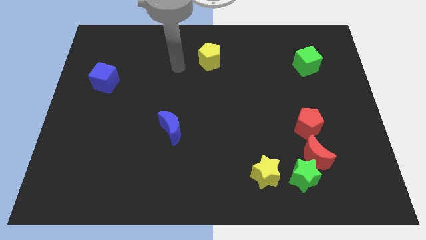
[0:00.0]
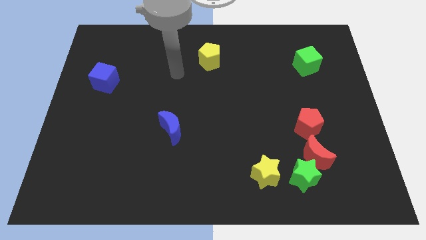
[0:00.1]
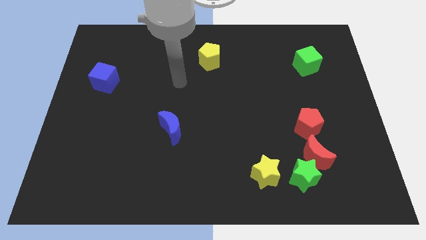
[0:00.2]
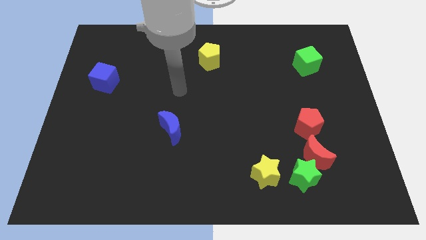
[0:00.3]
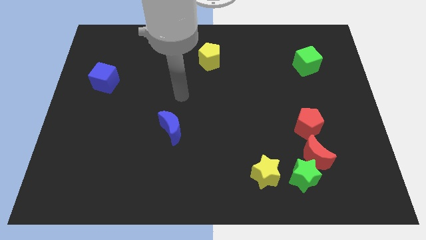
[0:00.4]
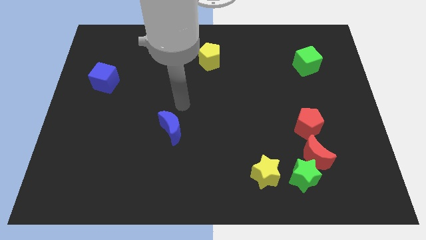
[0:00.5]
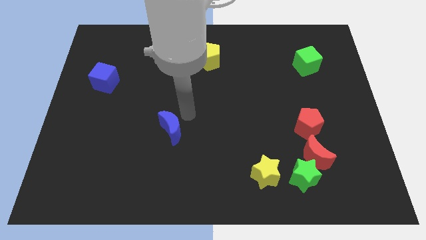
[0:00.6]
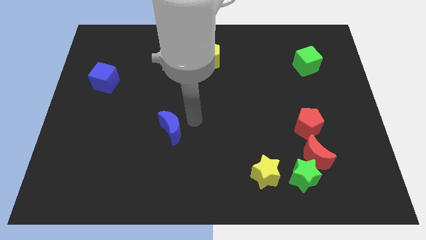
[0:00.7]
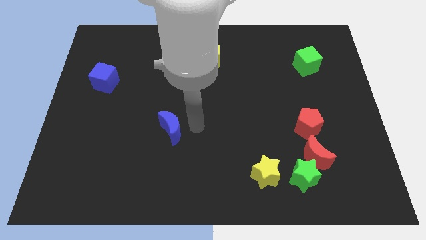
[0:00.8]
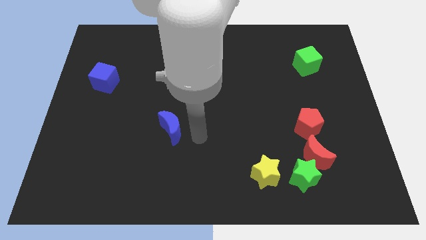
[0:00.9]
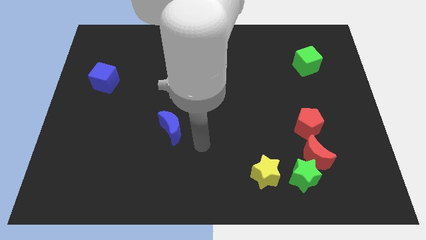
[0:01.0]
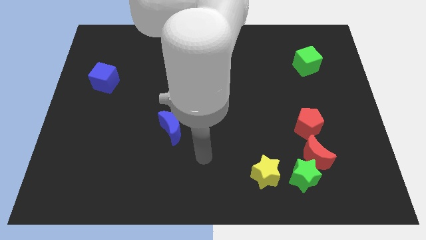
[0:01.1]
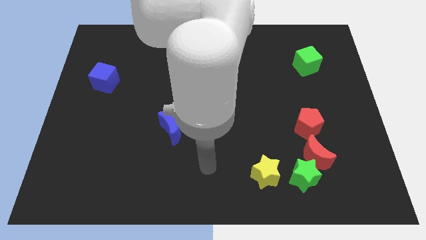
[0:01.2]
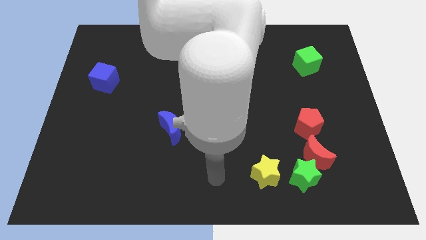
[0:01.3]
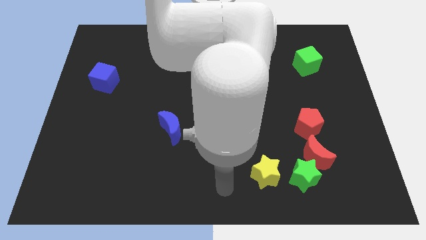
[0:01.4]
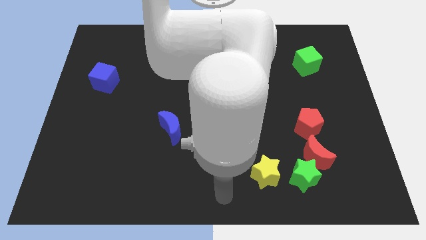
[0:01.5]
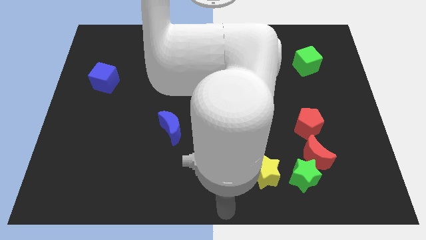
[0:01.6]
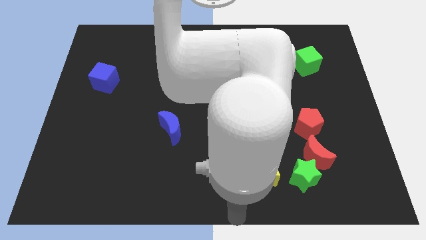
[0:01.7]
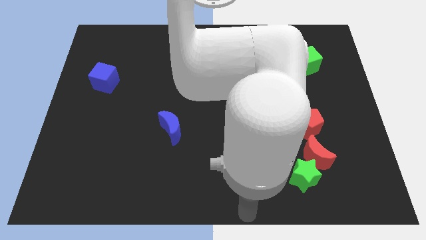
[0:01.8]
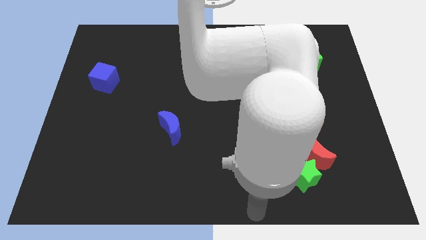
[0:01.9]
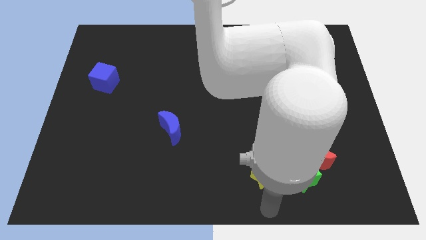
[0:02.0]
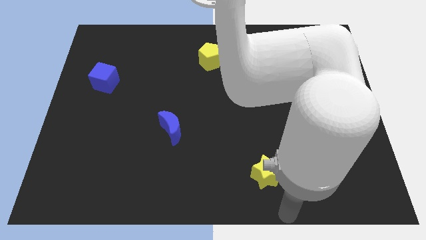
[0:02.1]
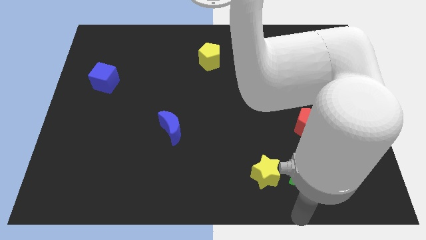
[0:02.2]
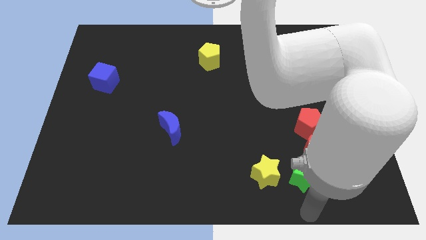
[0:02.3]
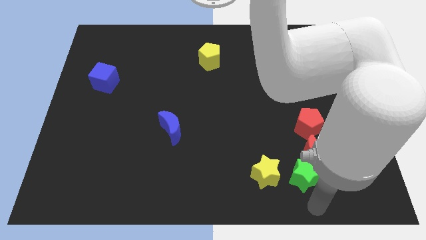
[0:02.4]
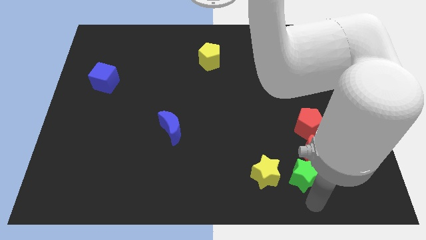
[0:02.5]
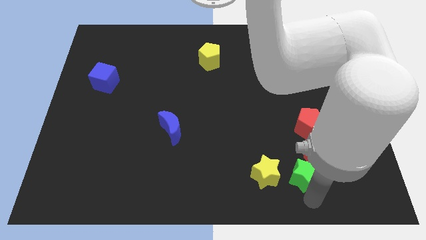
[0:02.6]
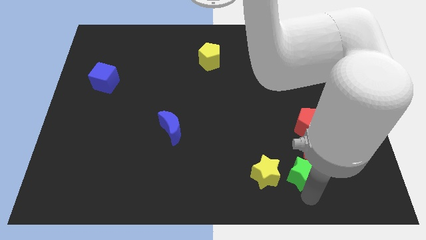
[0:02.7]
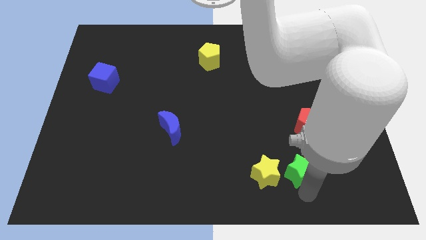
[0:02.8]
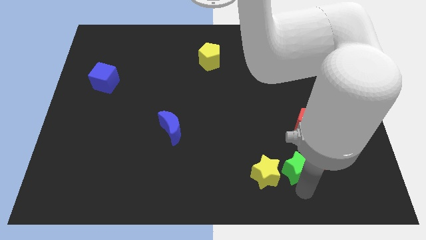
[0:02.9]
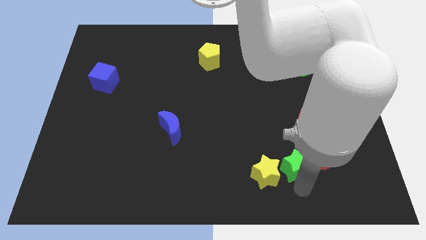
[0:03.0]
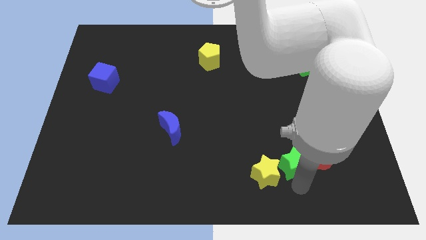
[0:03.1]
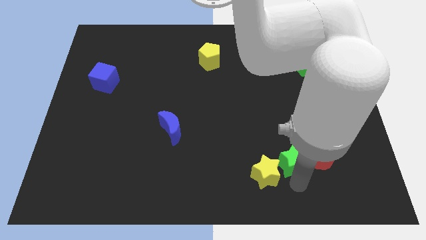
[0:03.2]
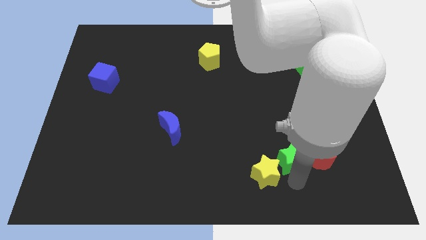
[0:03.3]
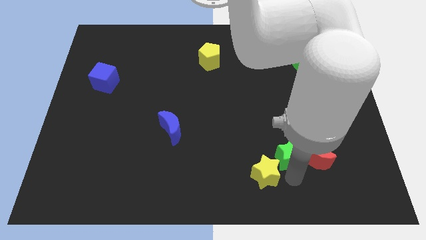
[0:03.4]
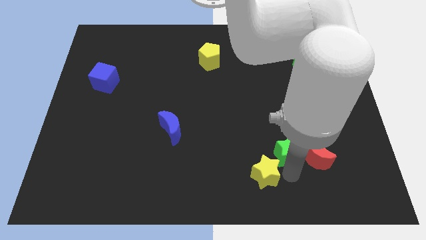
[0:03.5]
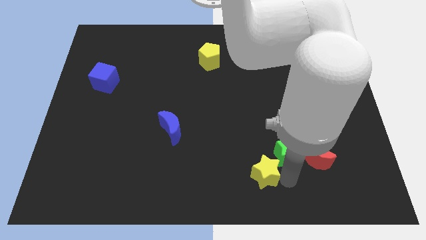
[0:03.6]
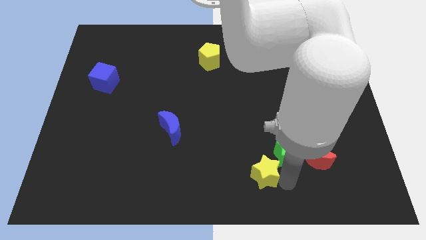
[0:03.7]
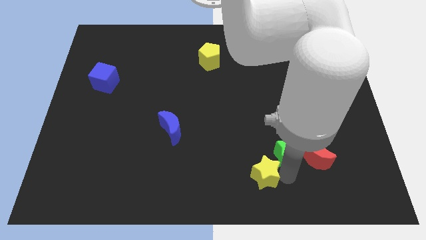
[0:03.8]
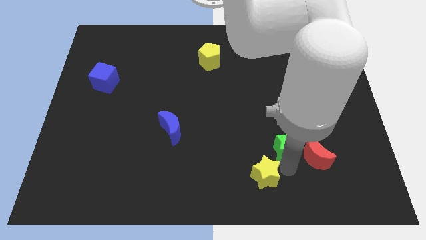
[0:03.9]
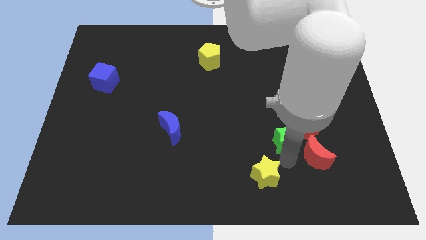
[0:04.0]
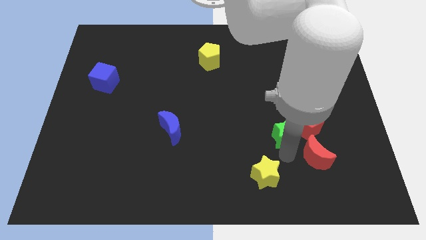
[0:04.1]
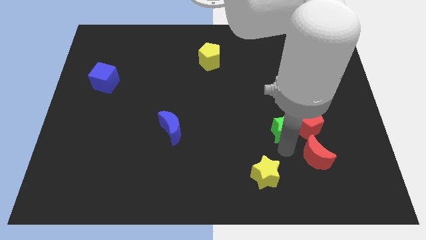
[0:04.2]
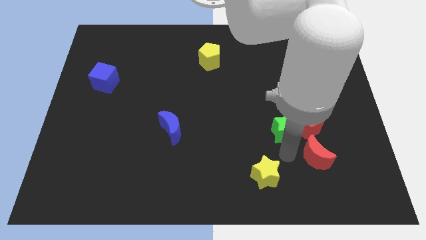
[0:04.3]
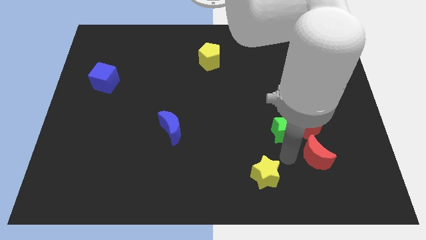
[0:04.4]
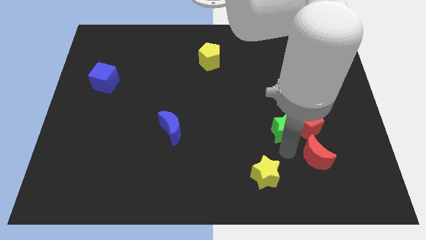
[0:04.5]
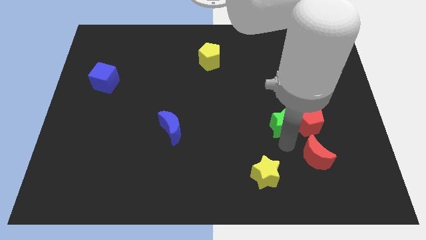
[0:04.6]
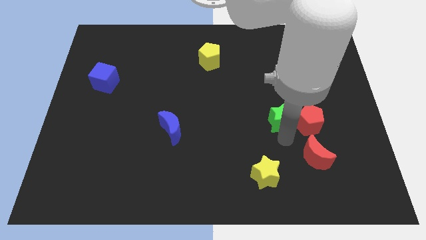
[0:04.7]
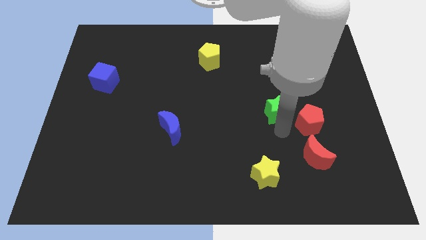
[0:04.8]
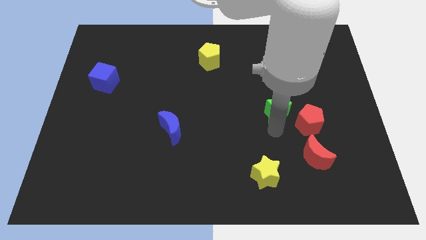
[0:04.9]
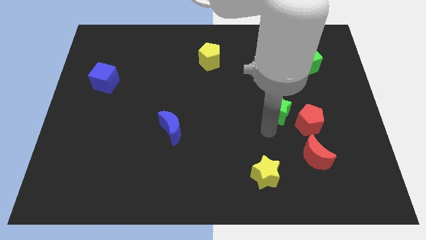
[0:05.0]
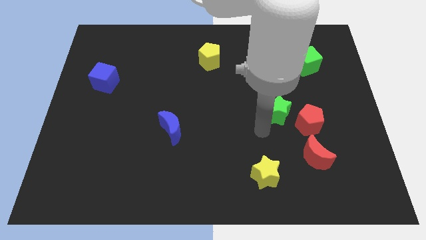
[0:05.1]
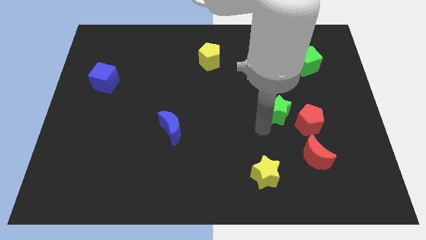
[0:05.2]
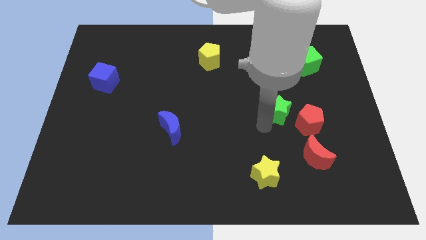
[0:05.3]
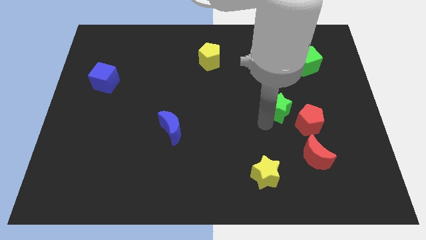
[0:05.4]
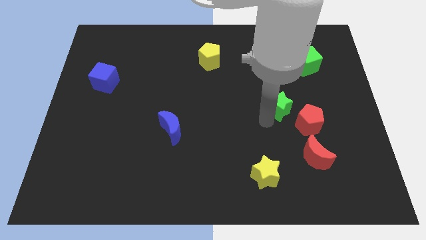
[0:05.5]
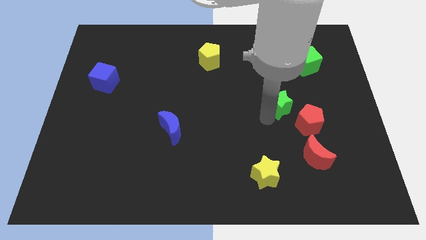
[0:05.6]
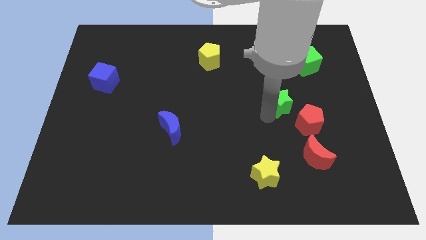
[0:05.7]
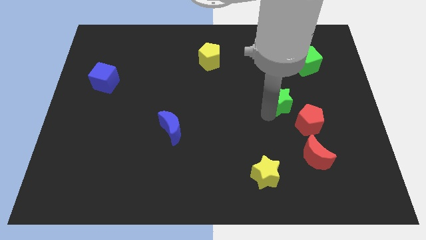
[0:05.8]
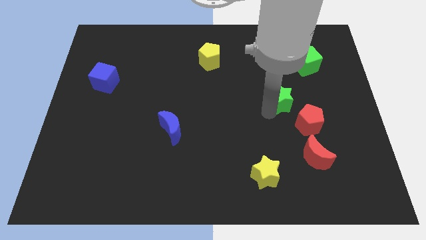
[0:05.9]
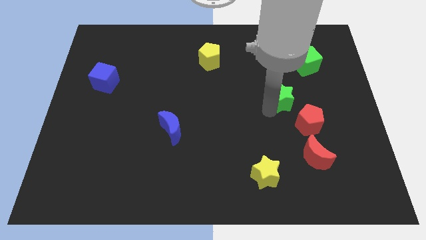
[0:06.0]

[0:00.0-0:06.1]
slide the green star up

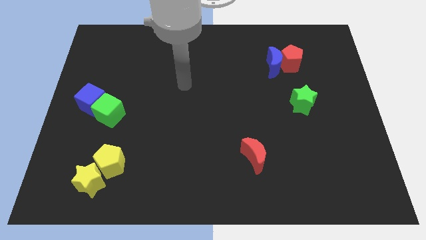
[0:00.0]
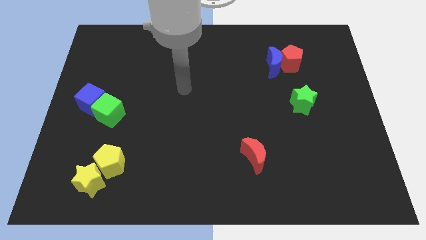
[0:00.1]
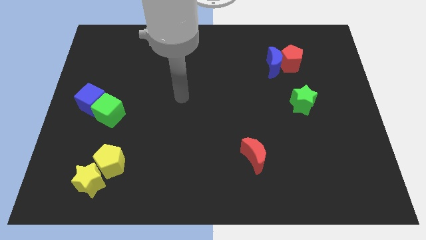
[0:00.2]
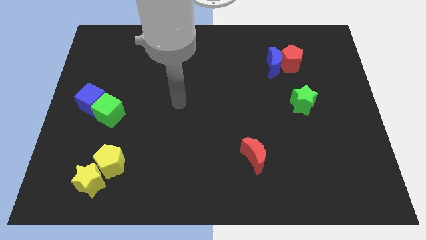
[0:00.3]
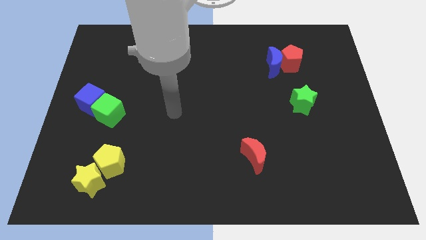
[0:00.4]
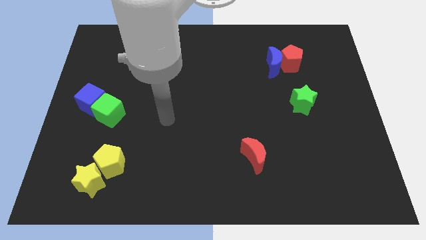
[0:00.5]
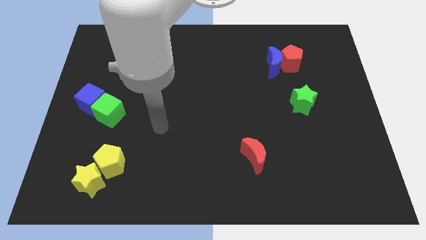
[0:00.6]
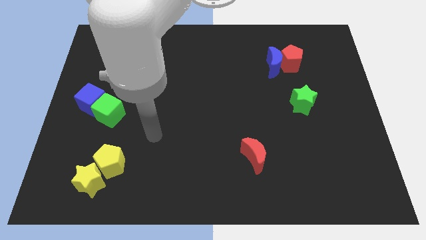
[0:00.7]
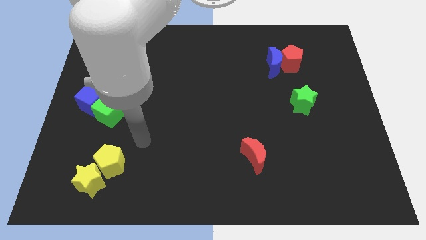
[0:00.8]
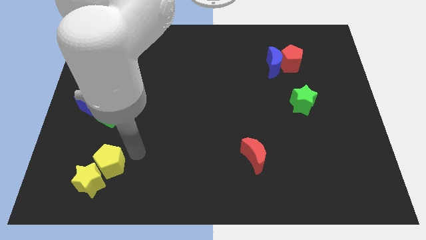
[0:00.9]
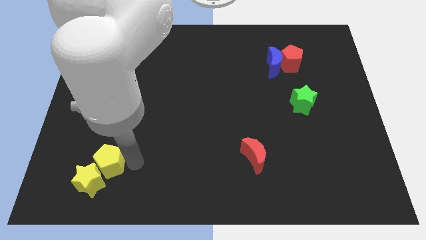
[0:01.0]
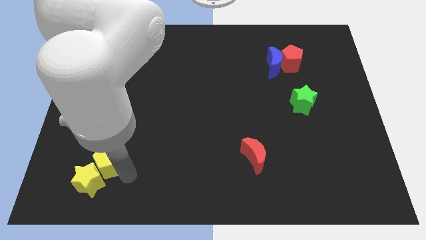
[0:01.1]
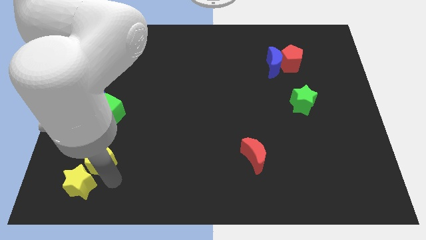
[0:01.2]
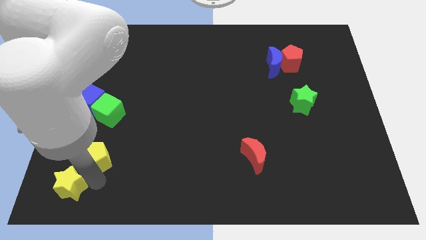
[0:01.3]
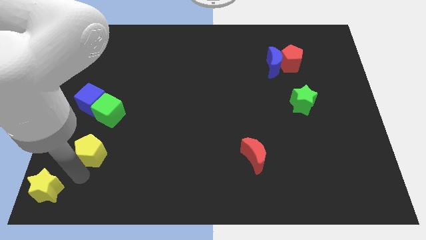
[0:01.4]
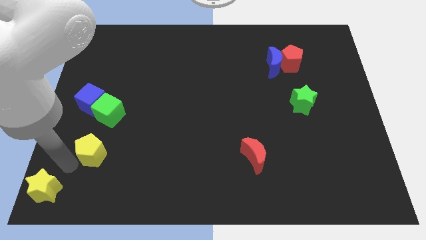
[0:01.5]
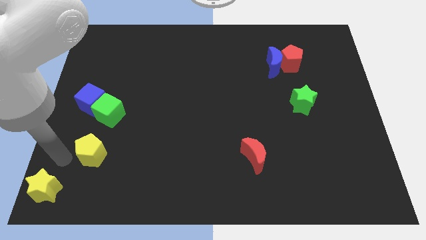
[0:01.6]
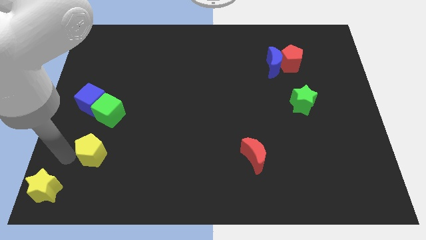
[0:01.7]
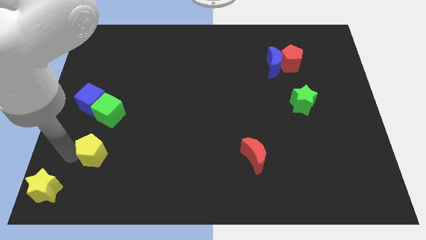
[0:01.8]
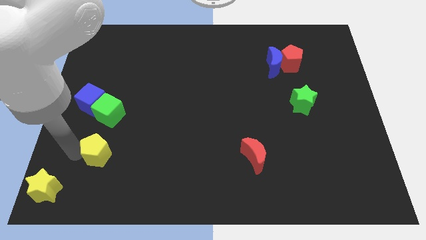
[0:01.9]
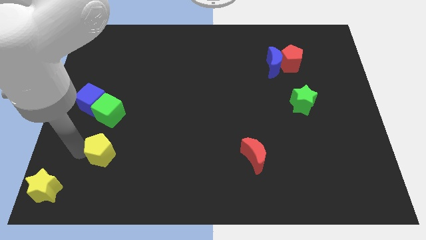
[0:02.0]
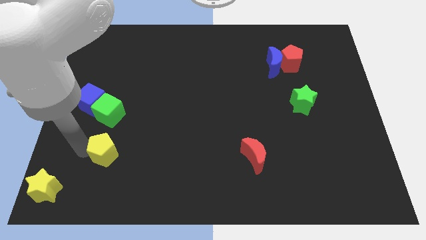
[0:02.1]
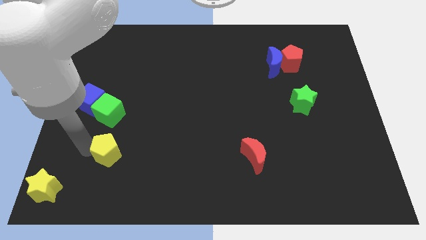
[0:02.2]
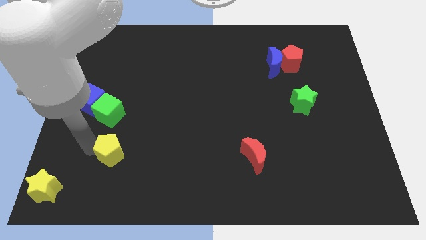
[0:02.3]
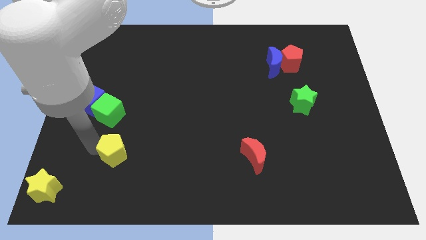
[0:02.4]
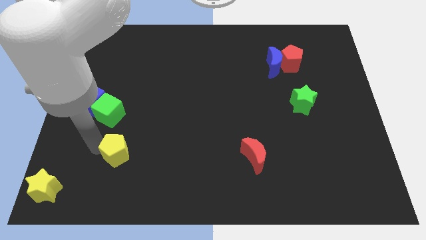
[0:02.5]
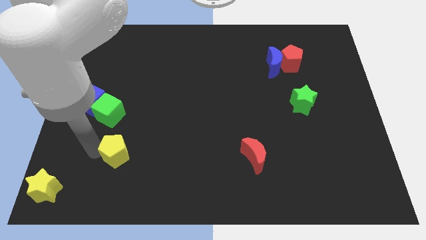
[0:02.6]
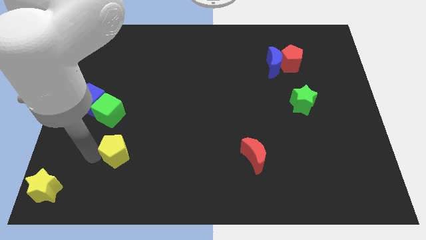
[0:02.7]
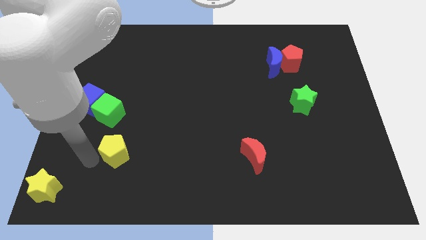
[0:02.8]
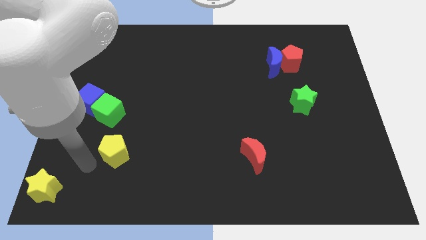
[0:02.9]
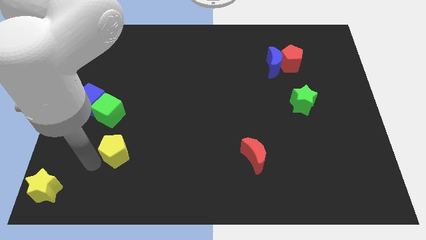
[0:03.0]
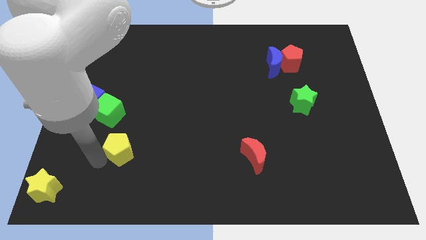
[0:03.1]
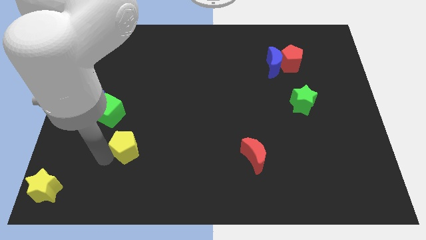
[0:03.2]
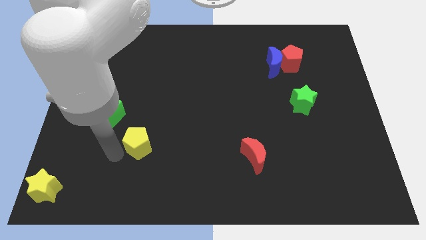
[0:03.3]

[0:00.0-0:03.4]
slide the yellow pentagon up and then to the right slightly
